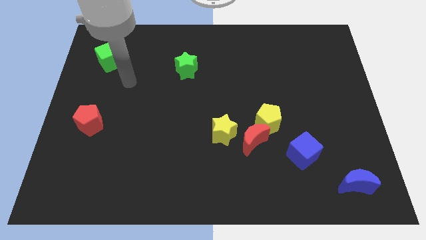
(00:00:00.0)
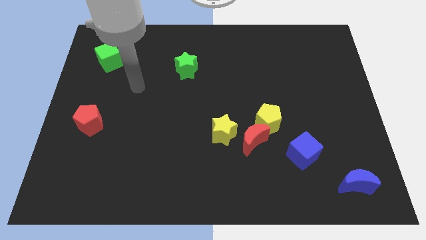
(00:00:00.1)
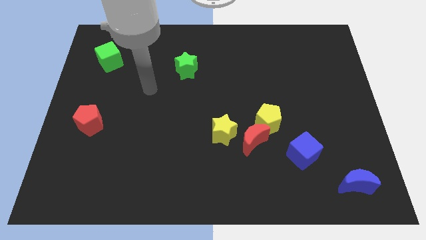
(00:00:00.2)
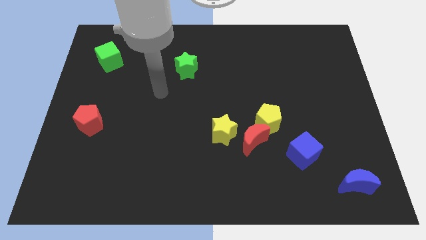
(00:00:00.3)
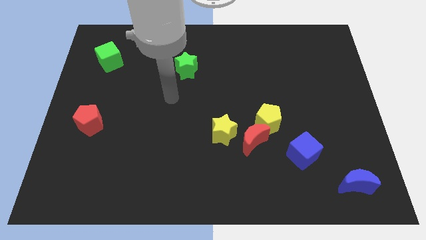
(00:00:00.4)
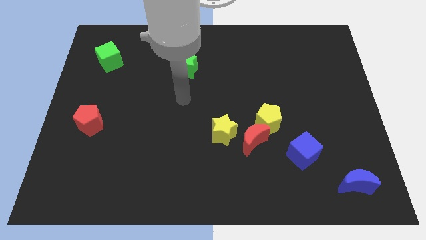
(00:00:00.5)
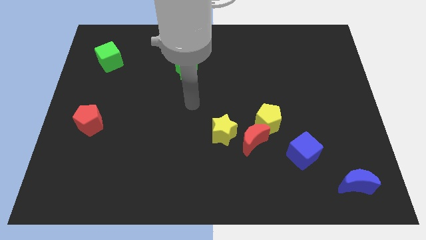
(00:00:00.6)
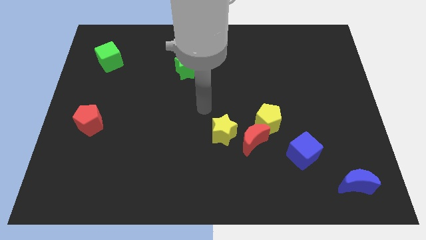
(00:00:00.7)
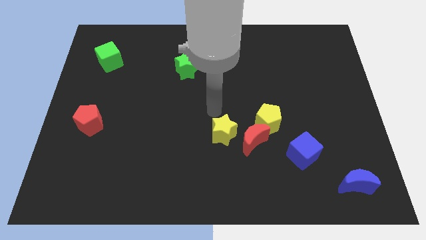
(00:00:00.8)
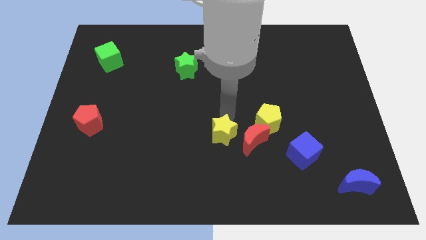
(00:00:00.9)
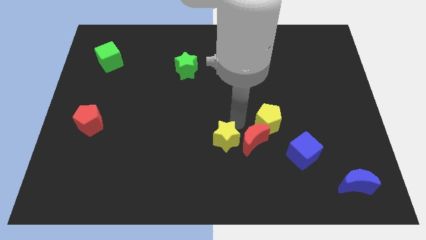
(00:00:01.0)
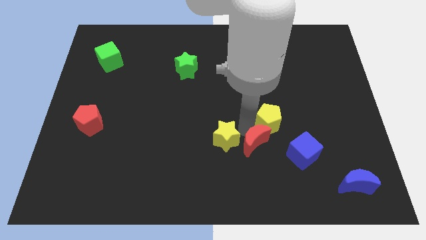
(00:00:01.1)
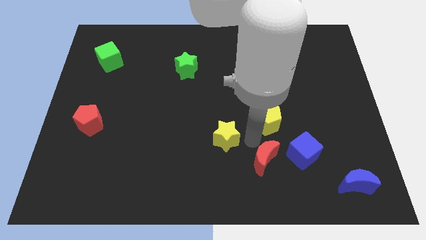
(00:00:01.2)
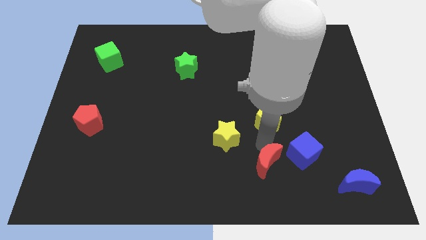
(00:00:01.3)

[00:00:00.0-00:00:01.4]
separate the yellow pentagon from the red moon

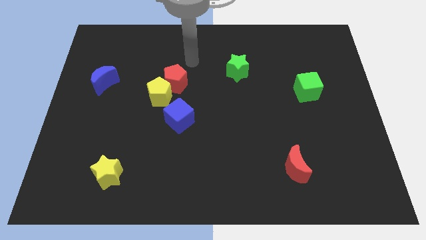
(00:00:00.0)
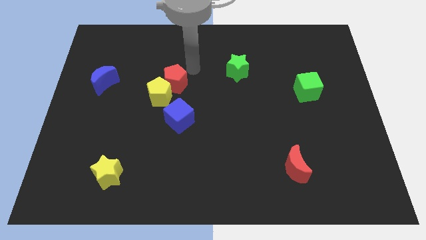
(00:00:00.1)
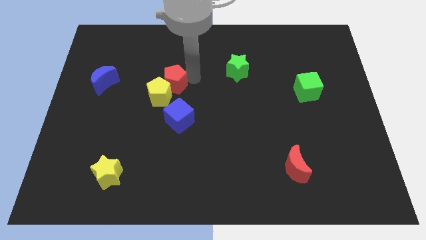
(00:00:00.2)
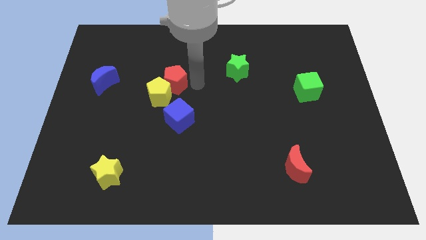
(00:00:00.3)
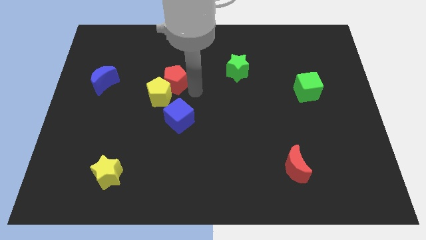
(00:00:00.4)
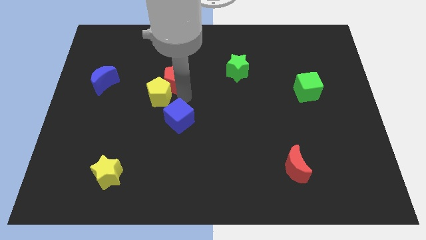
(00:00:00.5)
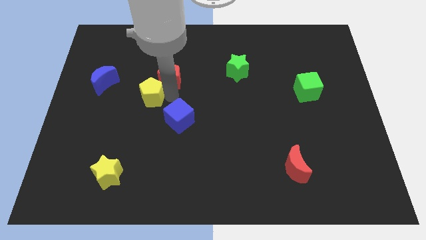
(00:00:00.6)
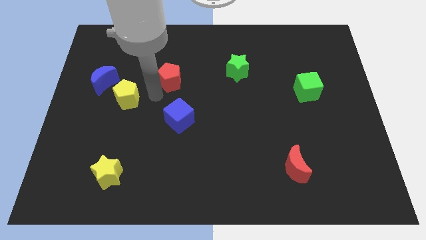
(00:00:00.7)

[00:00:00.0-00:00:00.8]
separate the red pentagon from the yellow pentagon

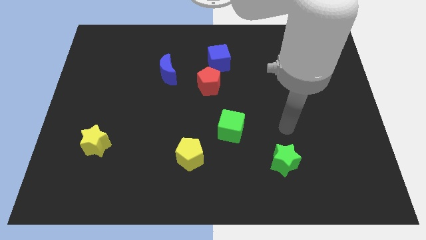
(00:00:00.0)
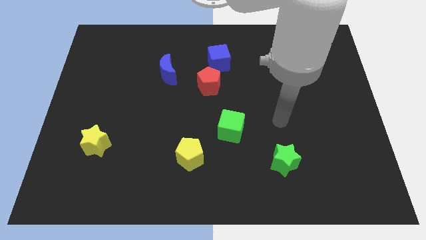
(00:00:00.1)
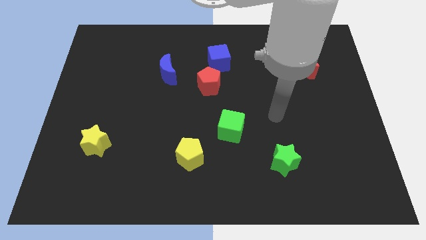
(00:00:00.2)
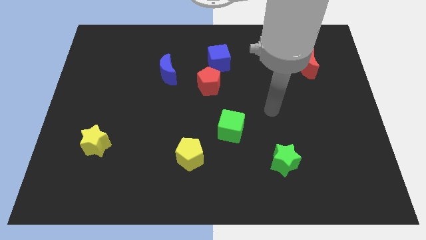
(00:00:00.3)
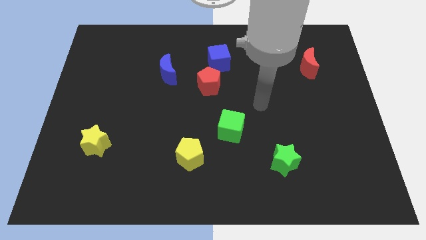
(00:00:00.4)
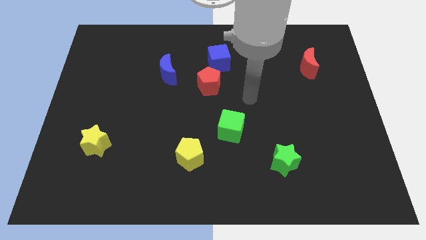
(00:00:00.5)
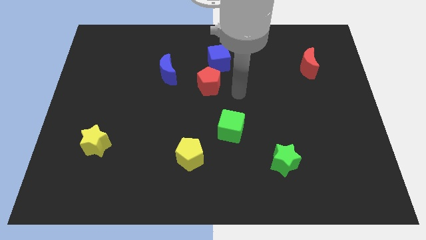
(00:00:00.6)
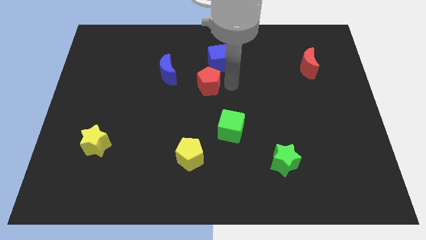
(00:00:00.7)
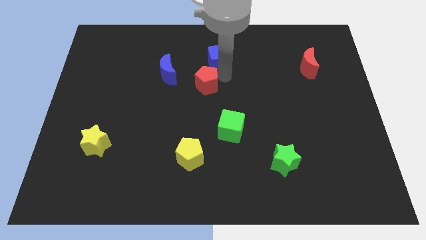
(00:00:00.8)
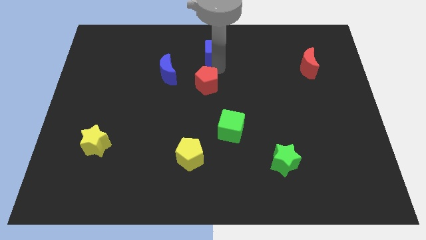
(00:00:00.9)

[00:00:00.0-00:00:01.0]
separate the red pentagon from the blue cube

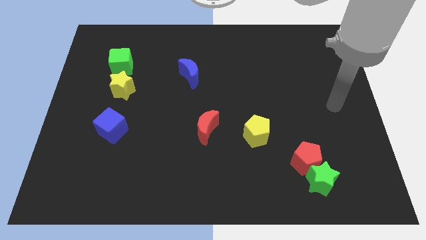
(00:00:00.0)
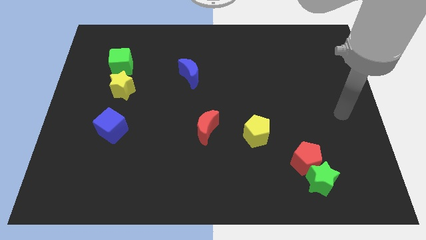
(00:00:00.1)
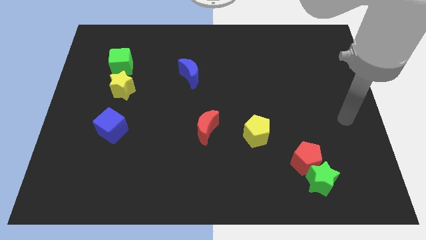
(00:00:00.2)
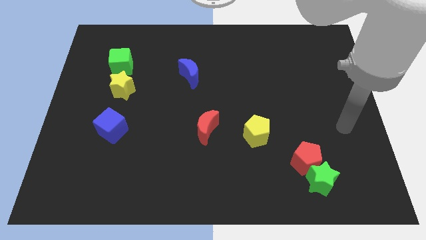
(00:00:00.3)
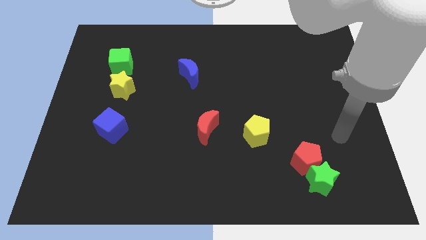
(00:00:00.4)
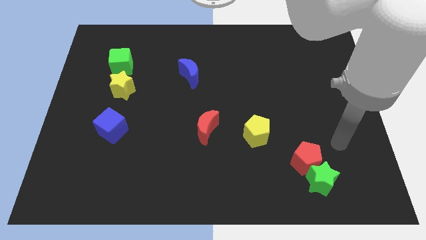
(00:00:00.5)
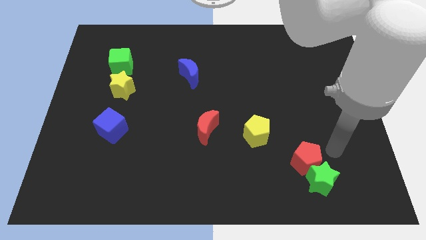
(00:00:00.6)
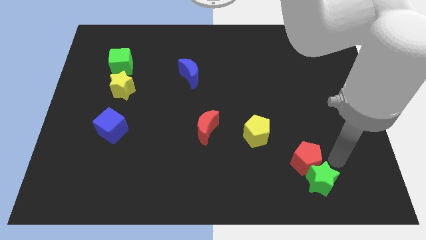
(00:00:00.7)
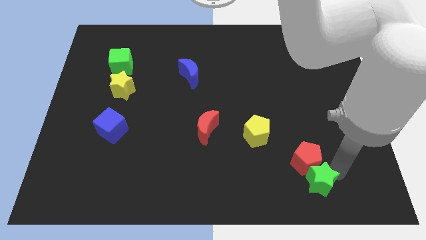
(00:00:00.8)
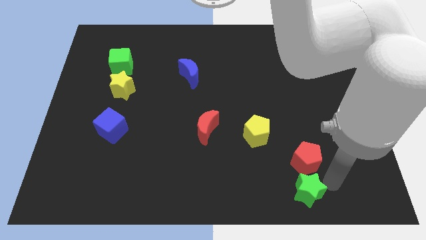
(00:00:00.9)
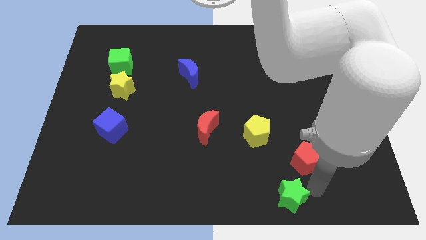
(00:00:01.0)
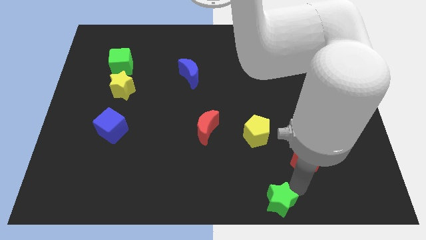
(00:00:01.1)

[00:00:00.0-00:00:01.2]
move the red pentagon away from the green star

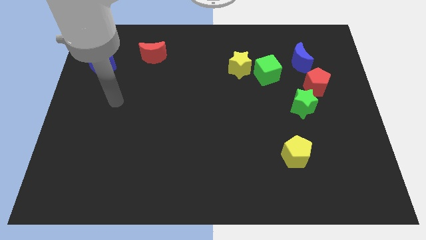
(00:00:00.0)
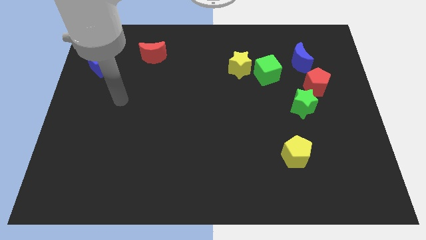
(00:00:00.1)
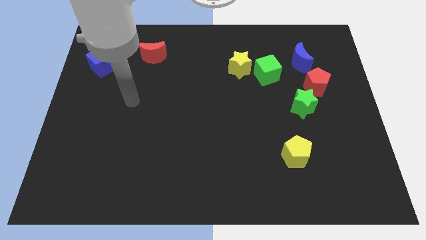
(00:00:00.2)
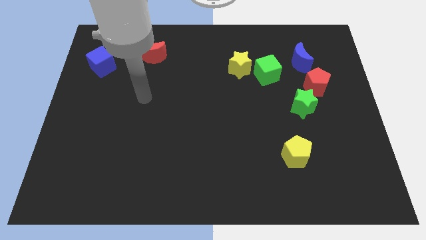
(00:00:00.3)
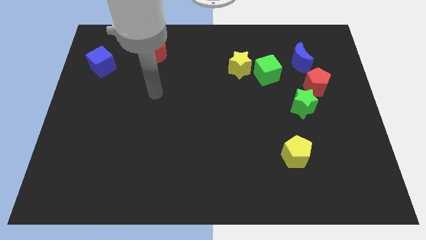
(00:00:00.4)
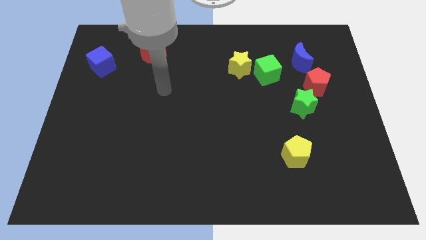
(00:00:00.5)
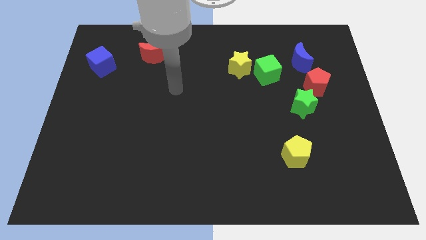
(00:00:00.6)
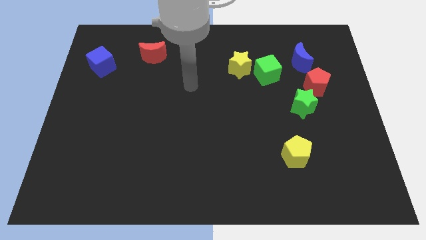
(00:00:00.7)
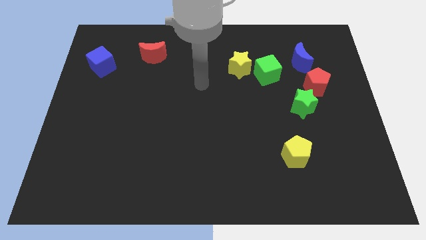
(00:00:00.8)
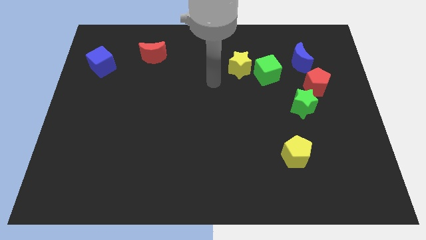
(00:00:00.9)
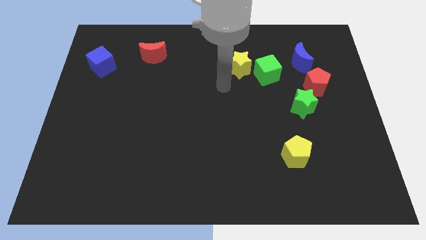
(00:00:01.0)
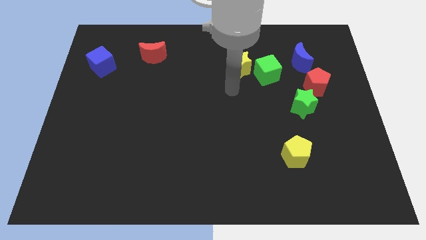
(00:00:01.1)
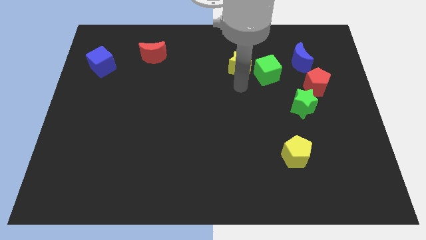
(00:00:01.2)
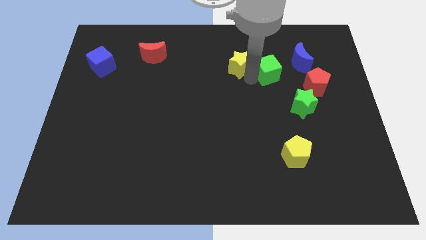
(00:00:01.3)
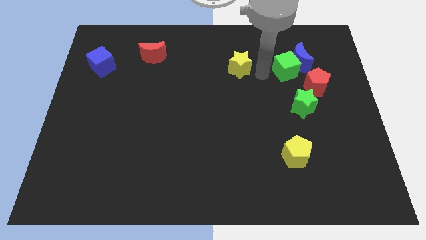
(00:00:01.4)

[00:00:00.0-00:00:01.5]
pull the yellow star apart from the green cube

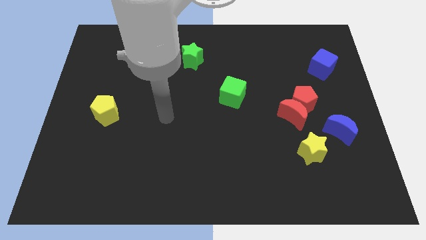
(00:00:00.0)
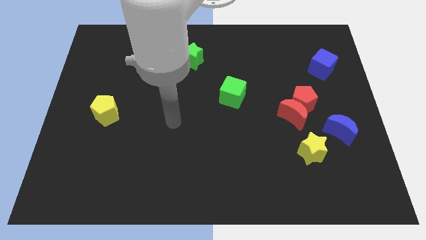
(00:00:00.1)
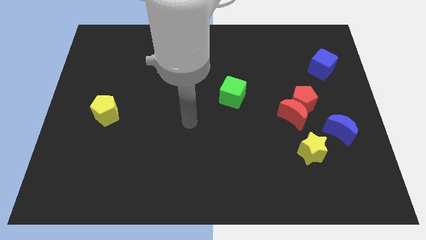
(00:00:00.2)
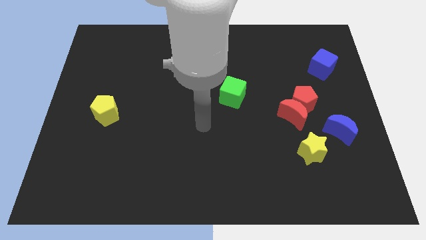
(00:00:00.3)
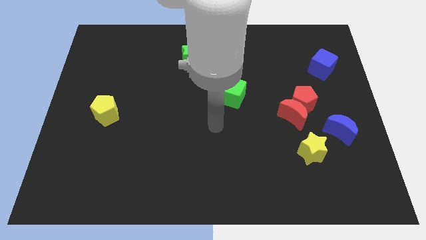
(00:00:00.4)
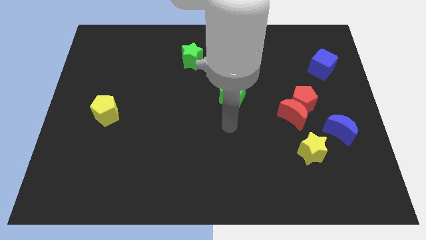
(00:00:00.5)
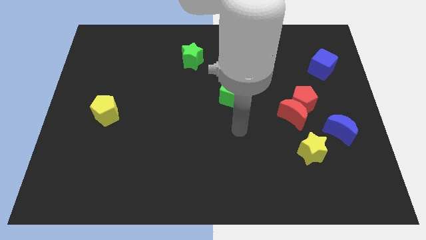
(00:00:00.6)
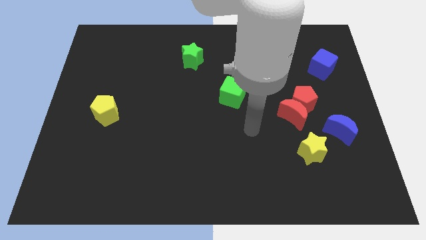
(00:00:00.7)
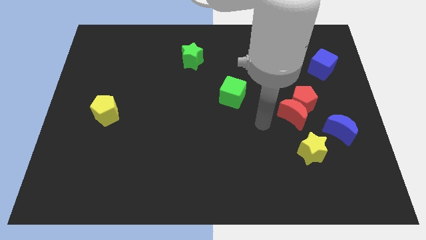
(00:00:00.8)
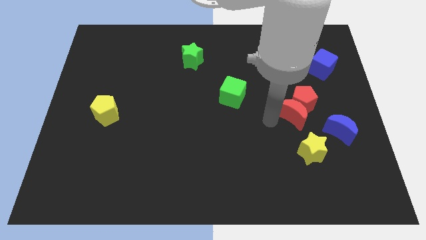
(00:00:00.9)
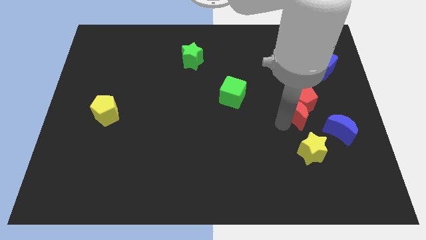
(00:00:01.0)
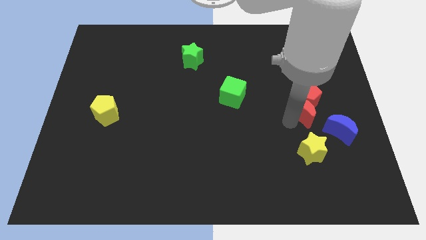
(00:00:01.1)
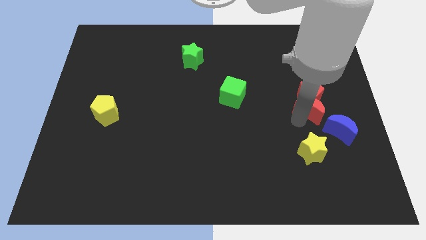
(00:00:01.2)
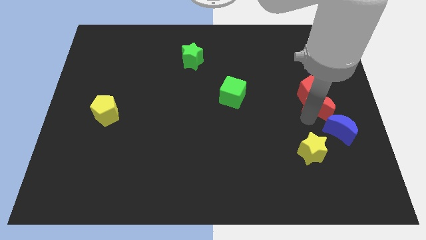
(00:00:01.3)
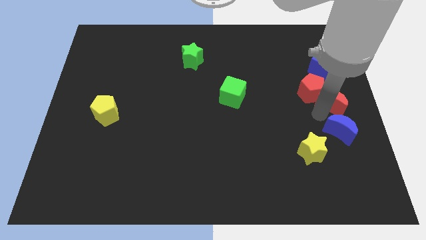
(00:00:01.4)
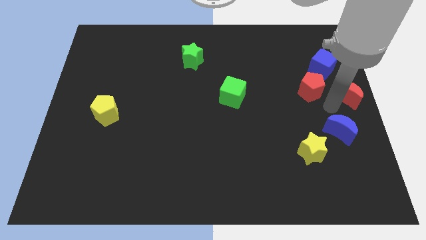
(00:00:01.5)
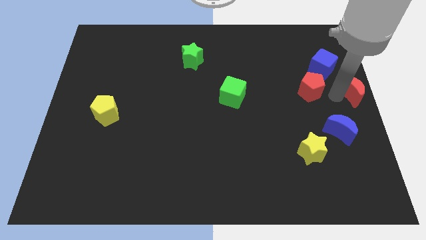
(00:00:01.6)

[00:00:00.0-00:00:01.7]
pull the red pentagon apart from the red moon

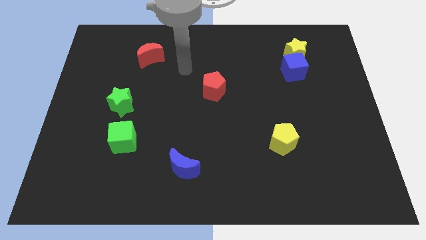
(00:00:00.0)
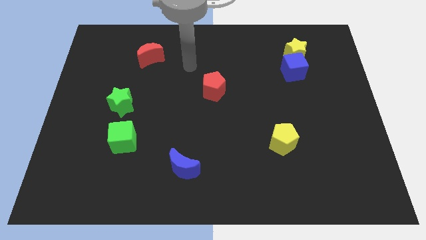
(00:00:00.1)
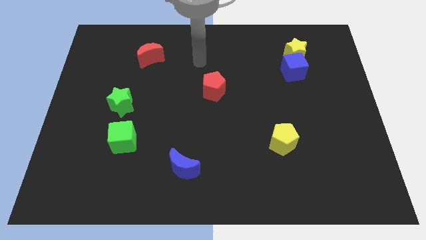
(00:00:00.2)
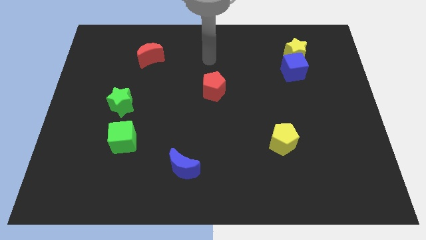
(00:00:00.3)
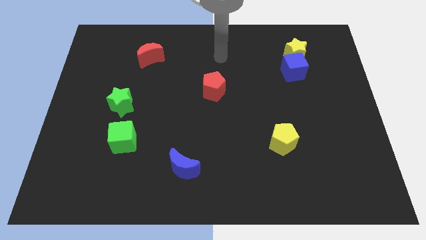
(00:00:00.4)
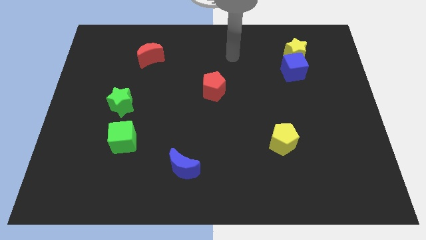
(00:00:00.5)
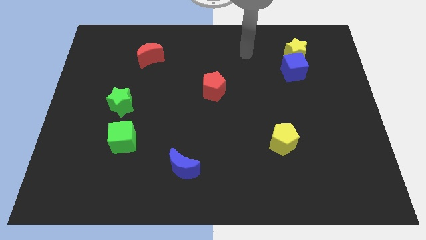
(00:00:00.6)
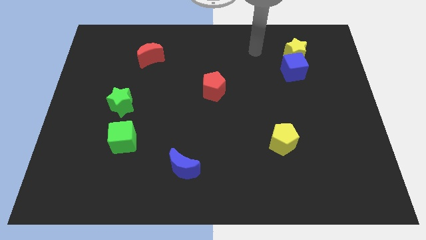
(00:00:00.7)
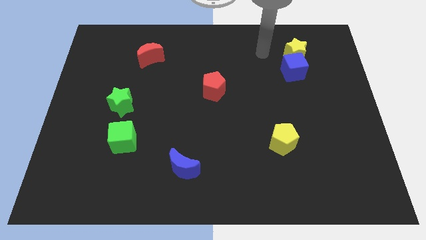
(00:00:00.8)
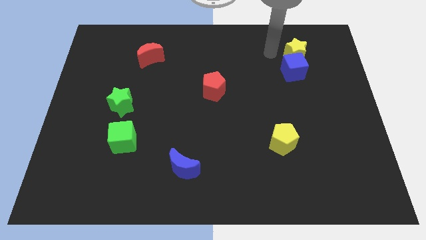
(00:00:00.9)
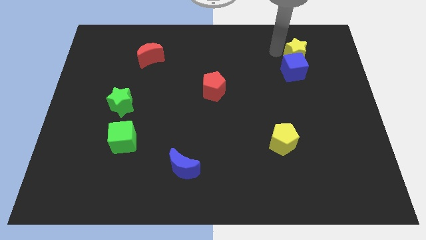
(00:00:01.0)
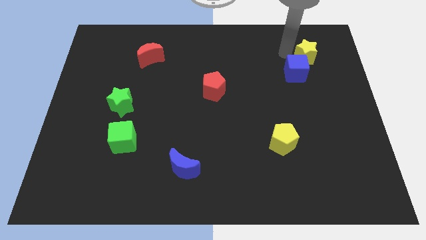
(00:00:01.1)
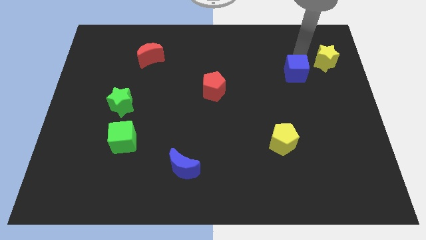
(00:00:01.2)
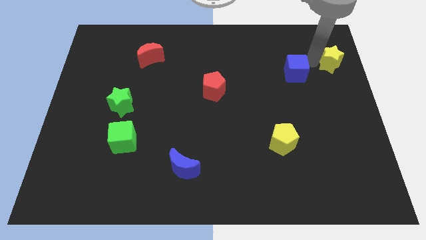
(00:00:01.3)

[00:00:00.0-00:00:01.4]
separate the blue cube from the yellow star

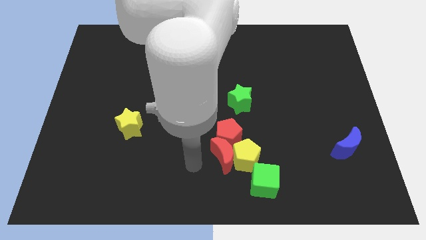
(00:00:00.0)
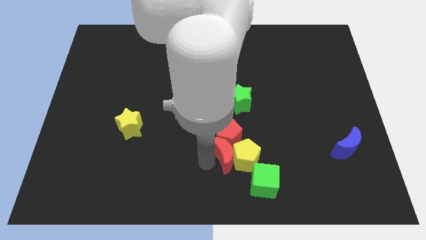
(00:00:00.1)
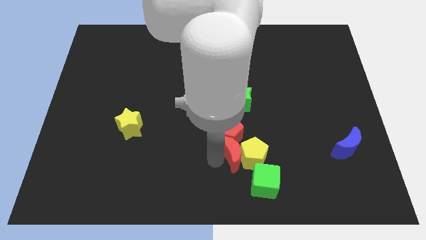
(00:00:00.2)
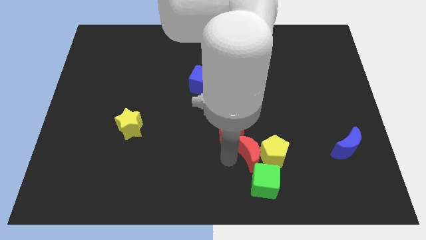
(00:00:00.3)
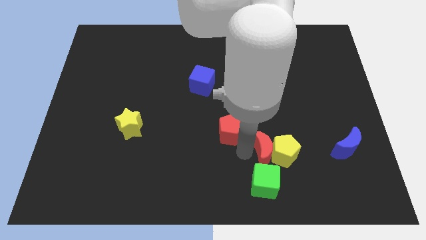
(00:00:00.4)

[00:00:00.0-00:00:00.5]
pull the red pentagon apart from the red moon and yellow pentagon
